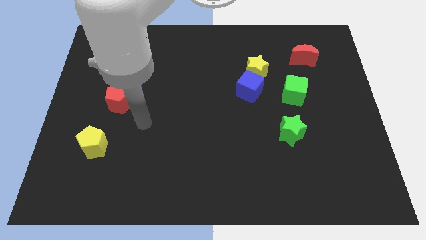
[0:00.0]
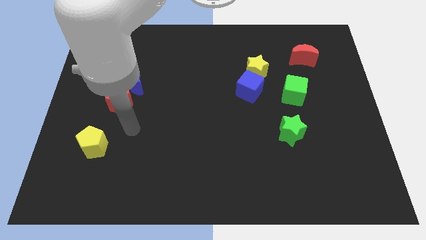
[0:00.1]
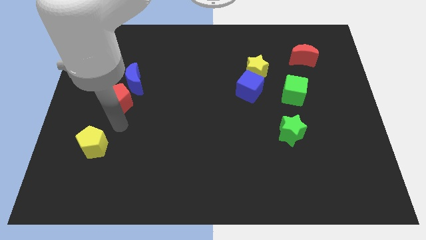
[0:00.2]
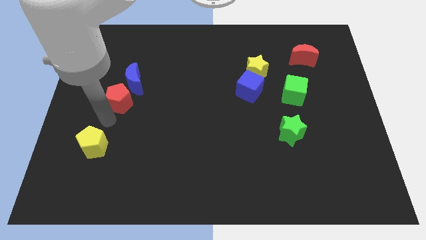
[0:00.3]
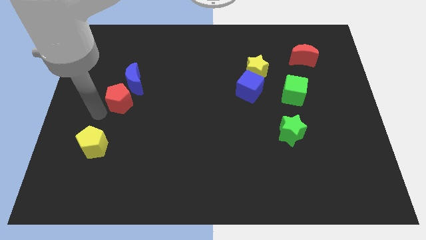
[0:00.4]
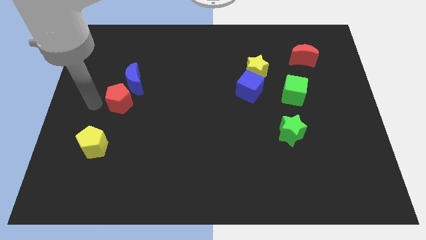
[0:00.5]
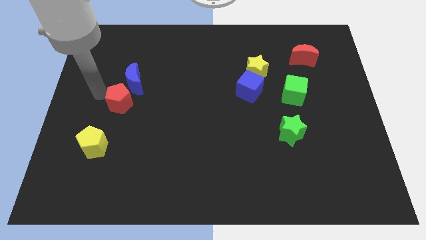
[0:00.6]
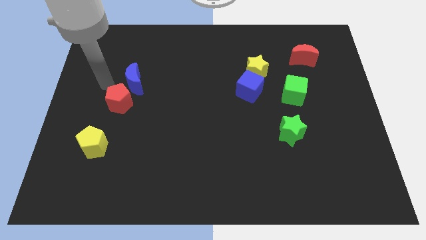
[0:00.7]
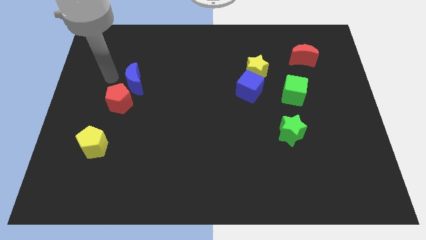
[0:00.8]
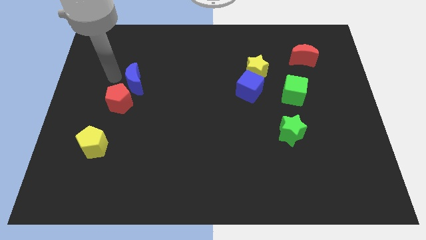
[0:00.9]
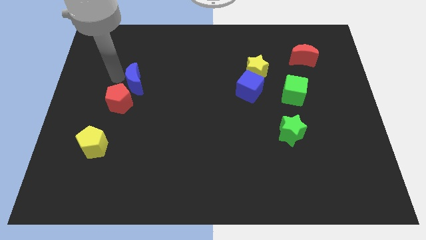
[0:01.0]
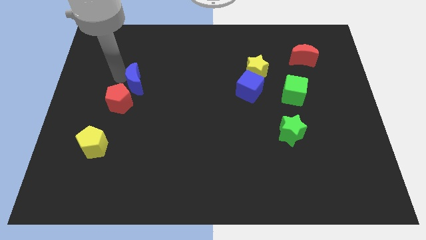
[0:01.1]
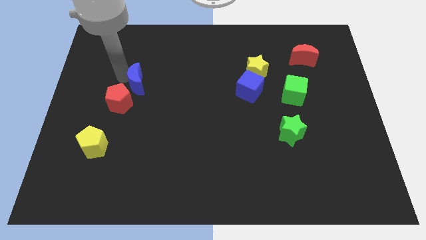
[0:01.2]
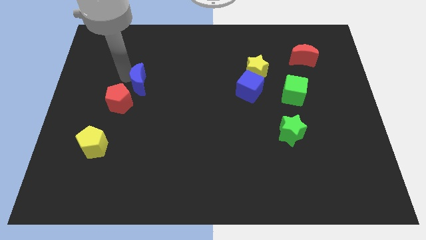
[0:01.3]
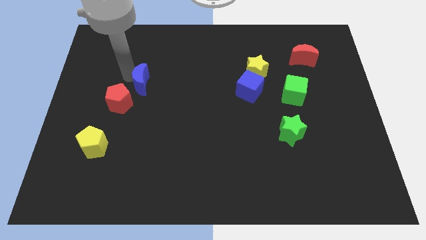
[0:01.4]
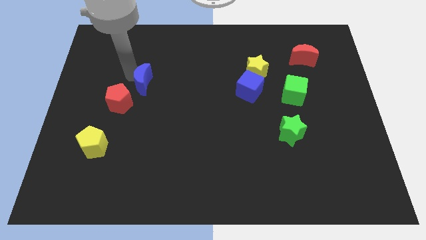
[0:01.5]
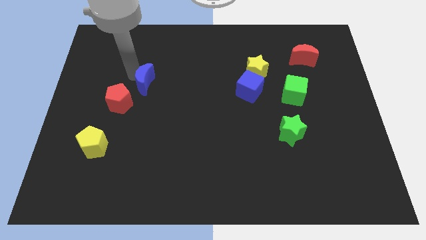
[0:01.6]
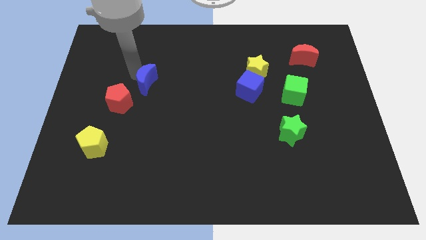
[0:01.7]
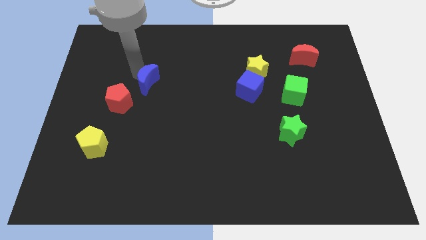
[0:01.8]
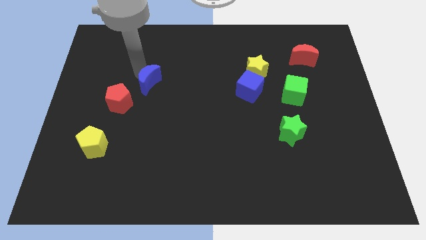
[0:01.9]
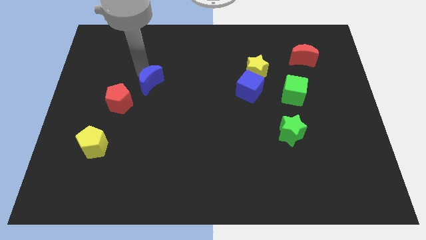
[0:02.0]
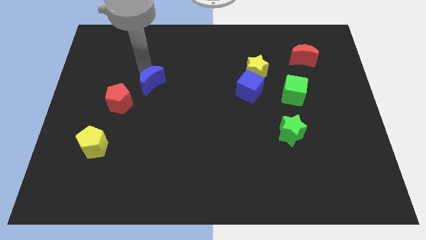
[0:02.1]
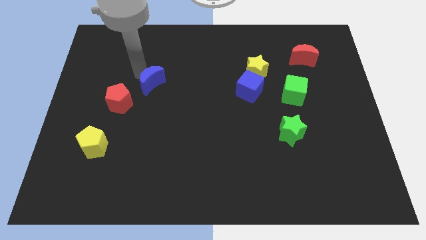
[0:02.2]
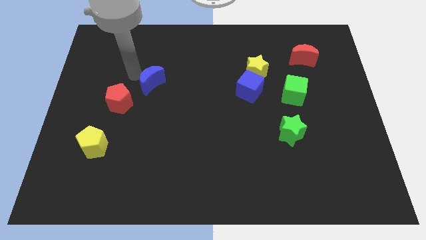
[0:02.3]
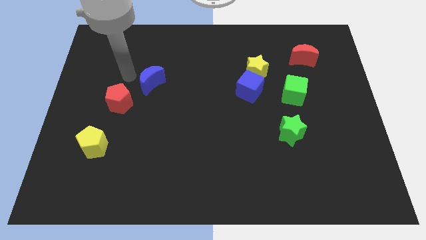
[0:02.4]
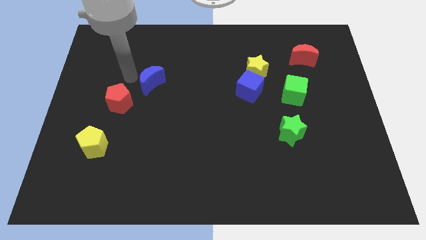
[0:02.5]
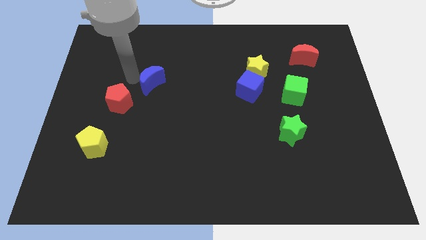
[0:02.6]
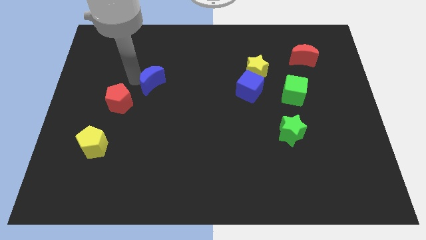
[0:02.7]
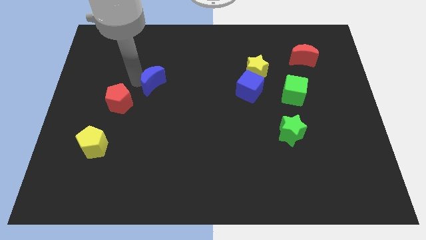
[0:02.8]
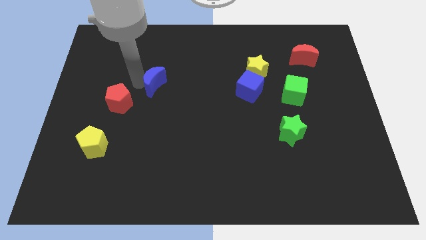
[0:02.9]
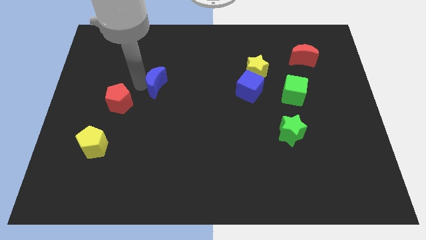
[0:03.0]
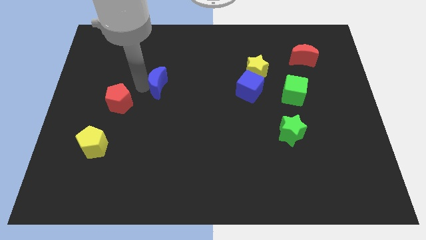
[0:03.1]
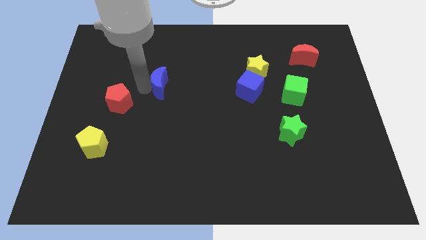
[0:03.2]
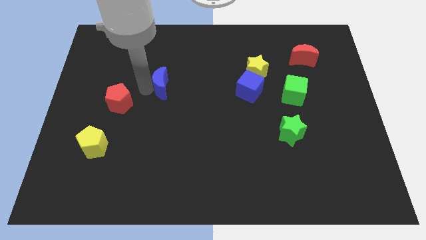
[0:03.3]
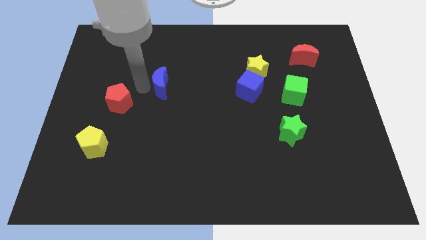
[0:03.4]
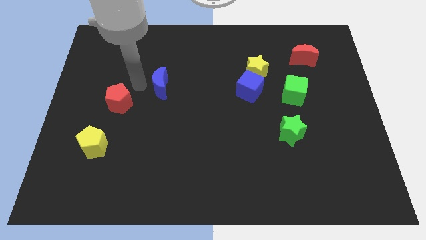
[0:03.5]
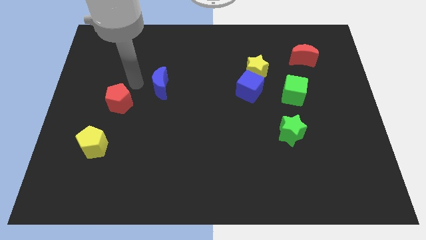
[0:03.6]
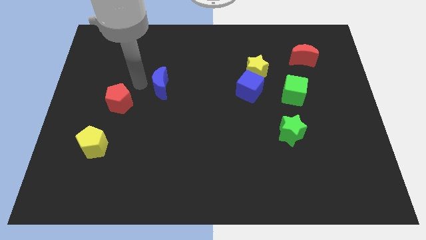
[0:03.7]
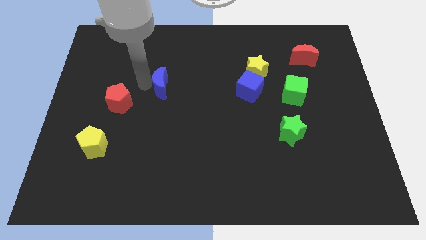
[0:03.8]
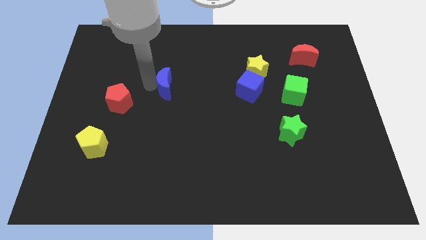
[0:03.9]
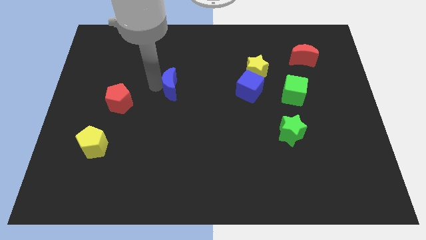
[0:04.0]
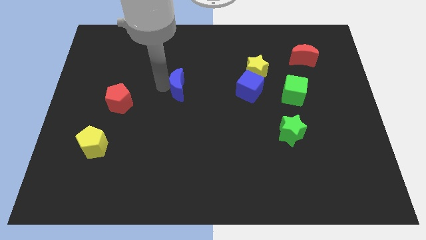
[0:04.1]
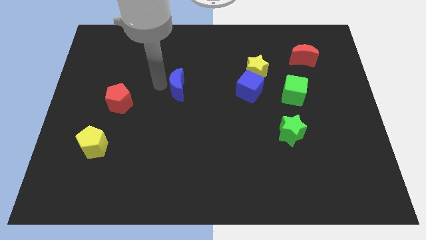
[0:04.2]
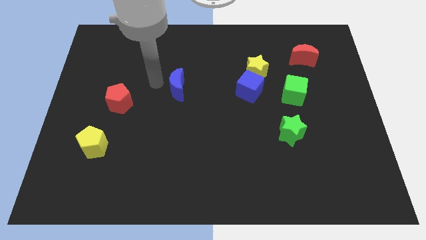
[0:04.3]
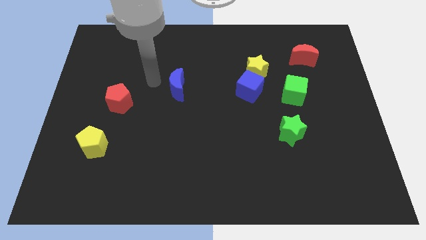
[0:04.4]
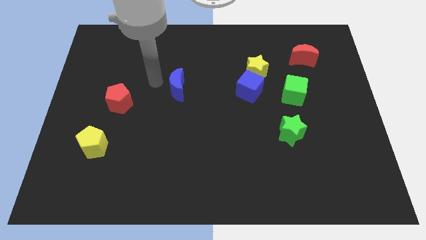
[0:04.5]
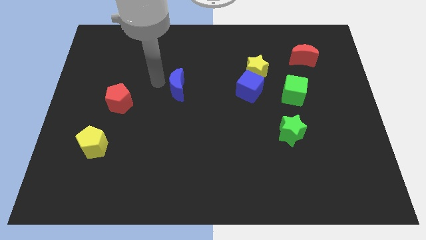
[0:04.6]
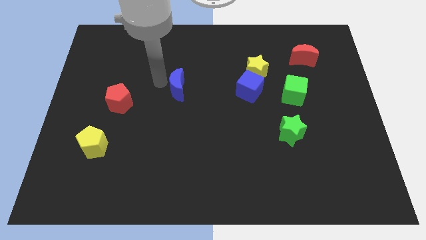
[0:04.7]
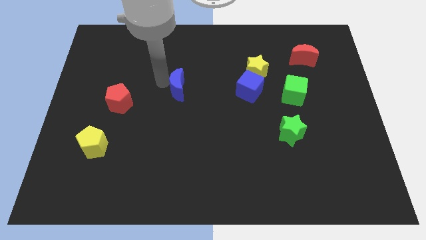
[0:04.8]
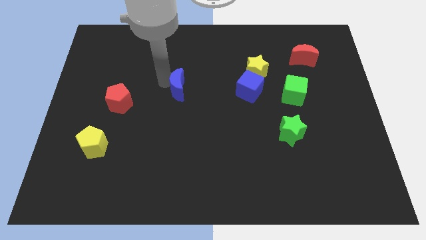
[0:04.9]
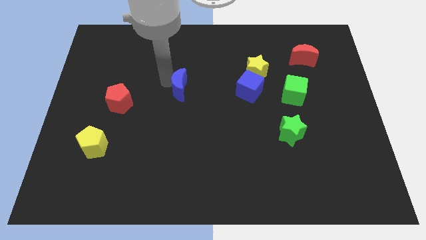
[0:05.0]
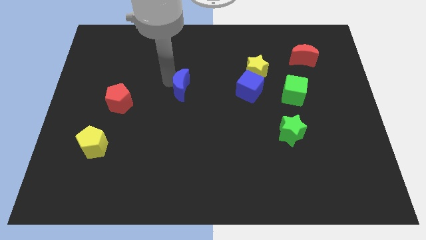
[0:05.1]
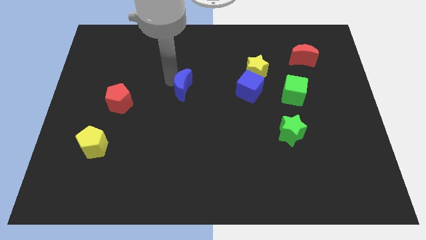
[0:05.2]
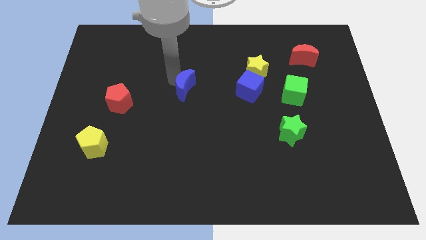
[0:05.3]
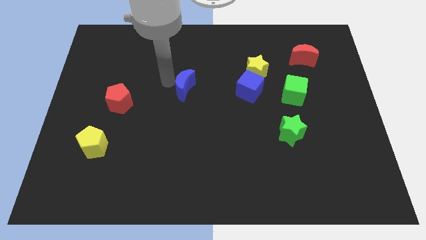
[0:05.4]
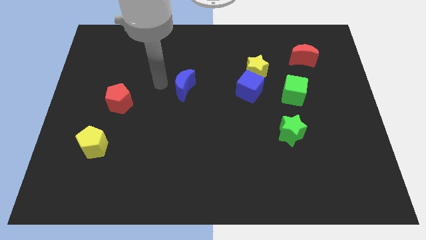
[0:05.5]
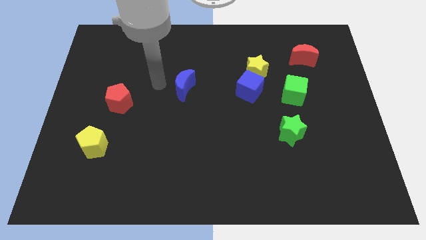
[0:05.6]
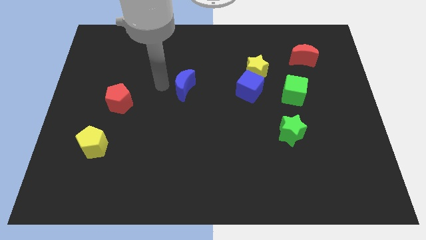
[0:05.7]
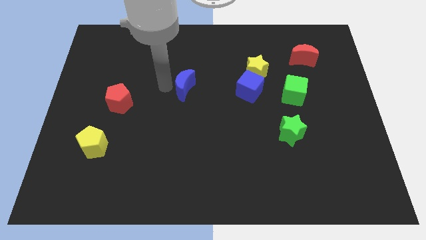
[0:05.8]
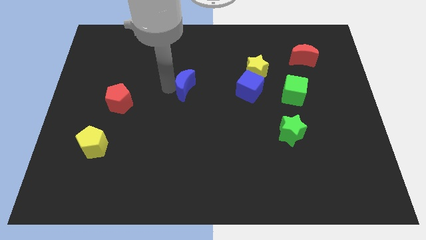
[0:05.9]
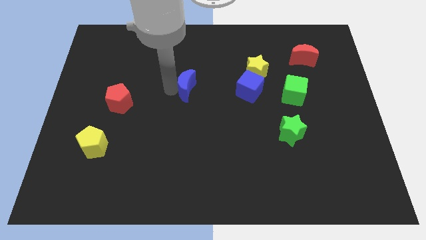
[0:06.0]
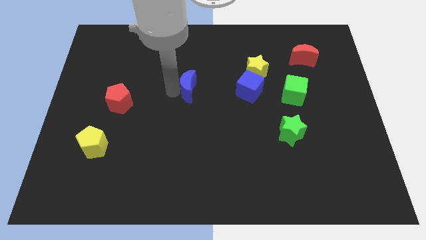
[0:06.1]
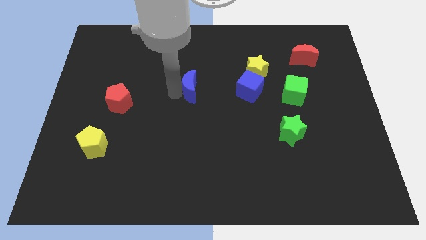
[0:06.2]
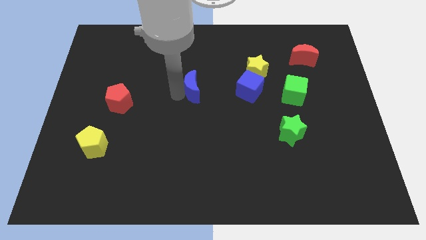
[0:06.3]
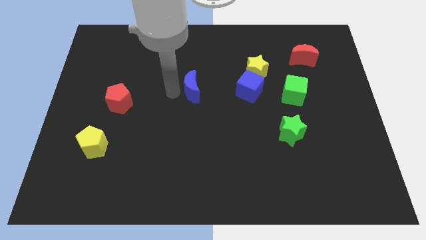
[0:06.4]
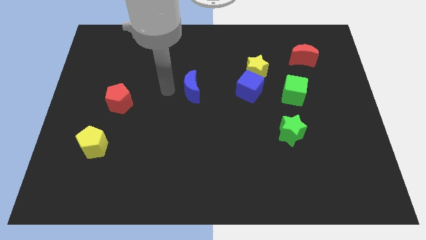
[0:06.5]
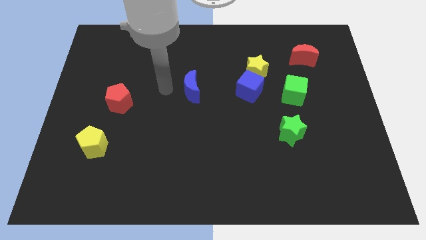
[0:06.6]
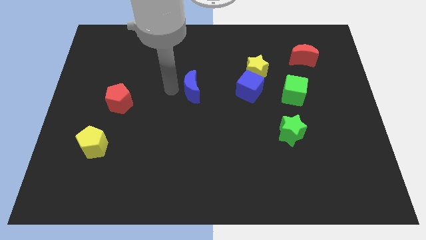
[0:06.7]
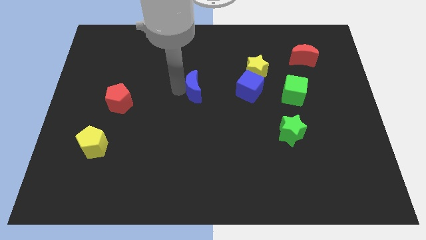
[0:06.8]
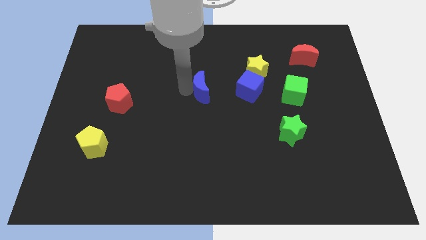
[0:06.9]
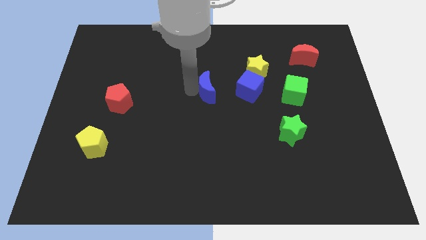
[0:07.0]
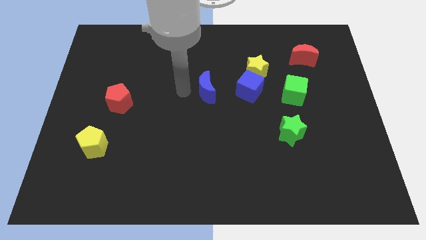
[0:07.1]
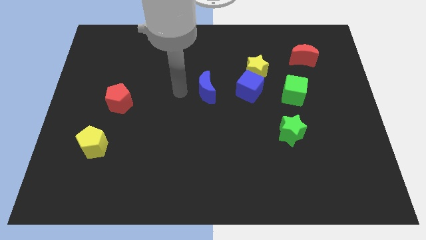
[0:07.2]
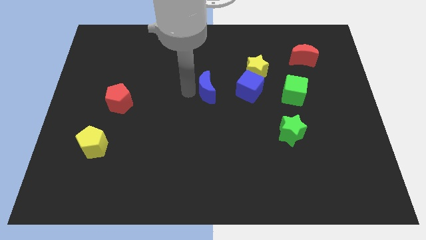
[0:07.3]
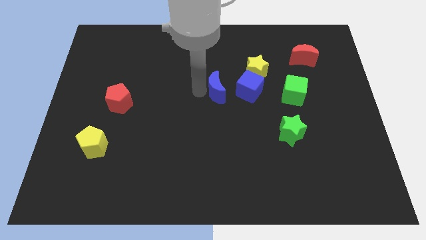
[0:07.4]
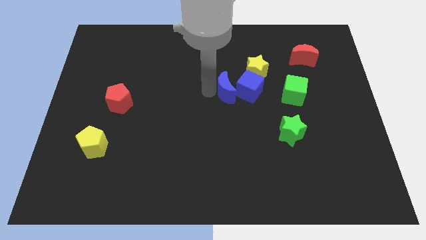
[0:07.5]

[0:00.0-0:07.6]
move the blue moon towards the blue cube
